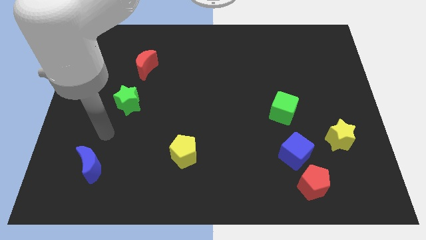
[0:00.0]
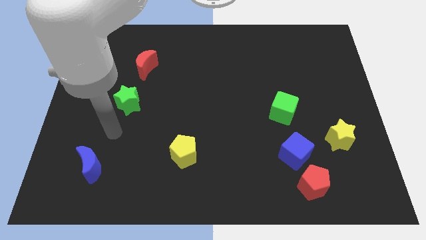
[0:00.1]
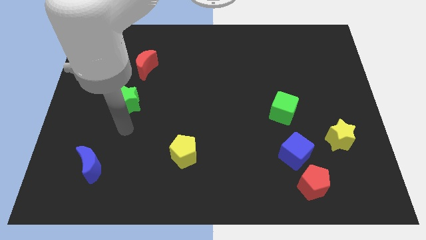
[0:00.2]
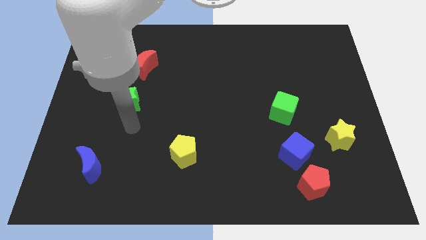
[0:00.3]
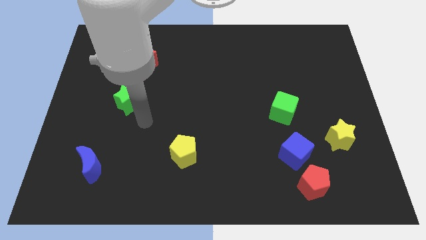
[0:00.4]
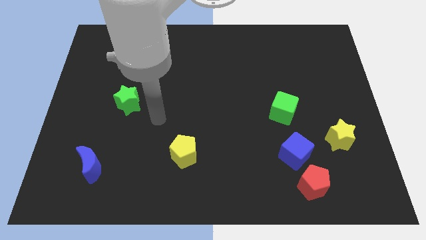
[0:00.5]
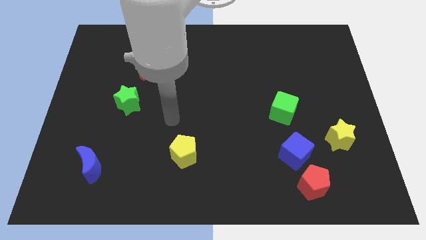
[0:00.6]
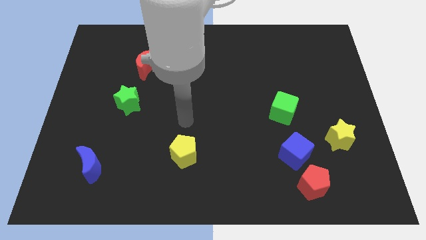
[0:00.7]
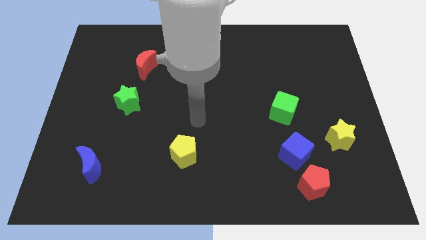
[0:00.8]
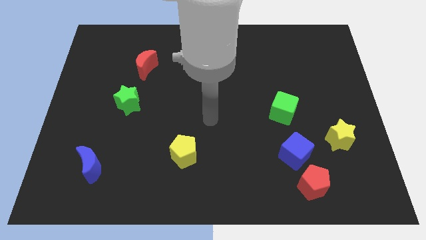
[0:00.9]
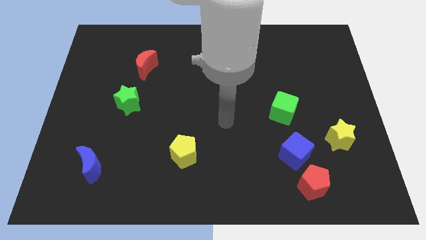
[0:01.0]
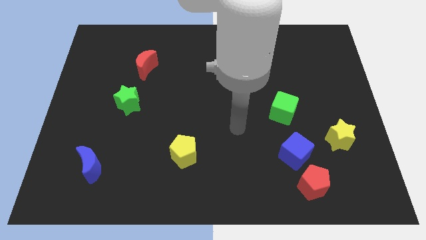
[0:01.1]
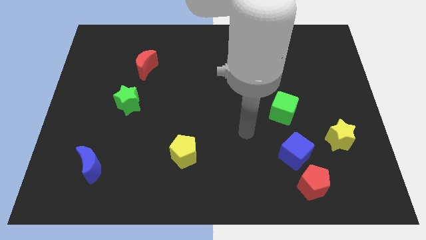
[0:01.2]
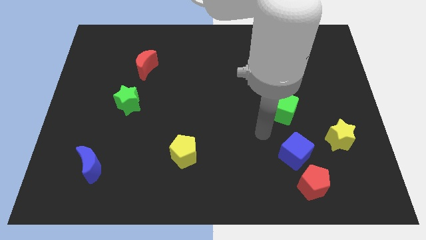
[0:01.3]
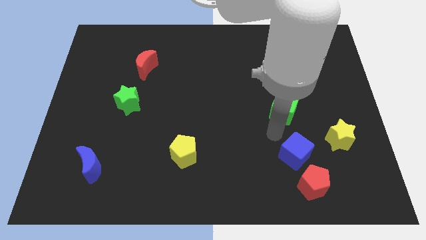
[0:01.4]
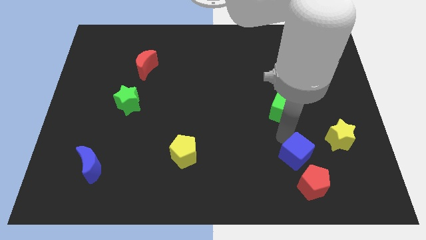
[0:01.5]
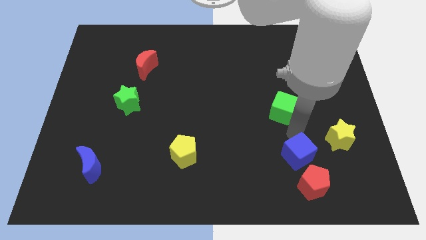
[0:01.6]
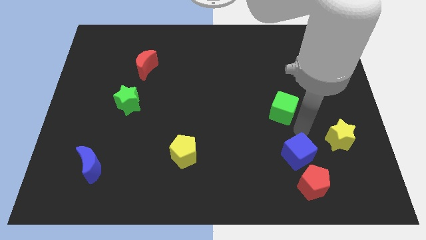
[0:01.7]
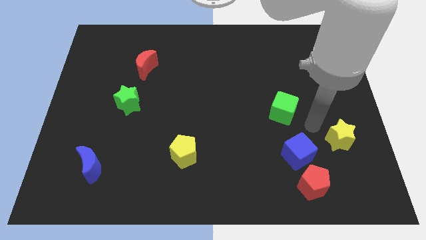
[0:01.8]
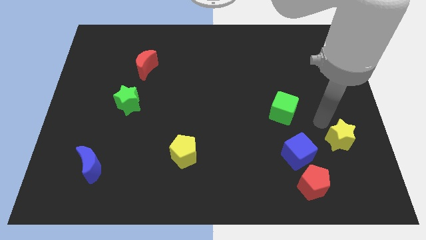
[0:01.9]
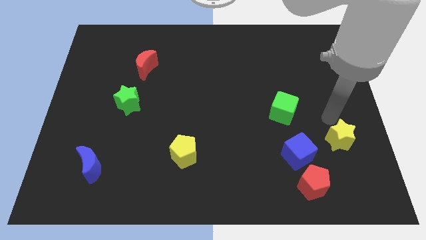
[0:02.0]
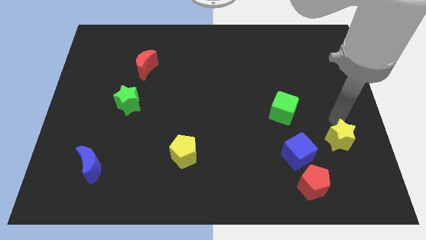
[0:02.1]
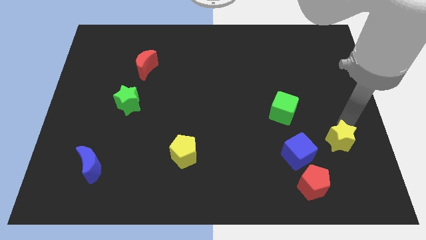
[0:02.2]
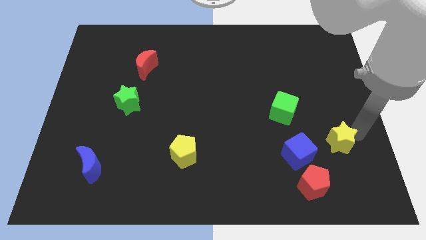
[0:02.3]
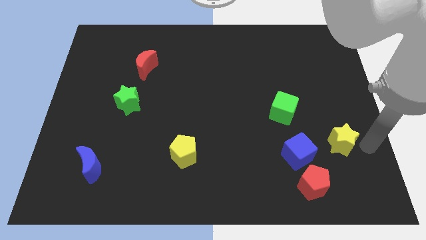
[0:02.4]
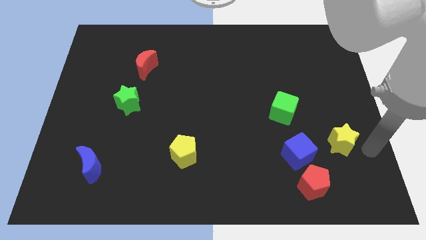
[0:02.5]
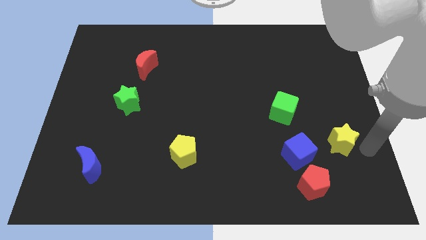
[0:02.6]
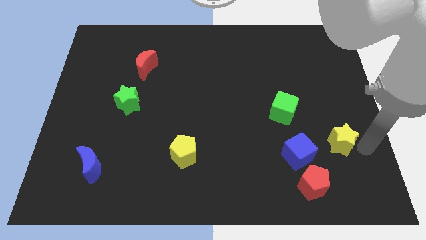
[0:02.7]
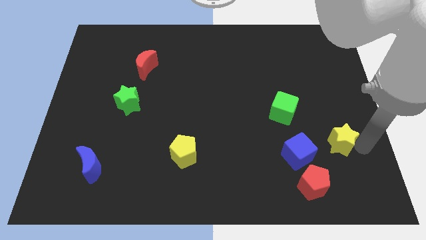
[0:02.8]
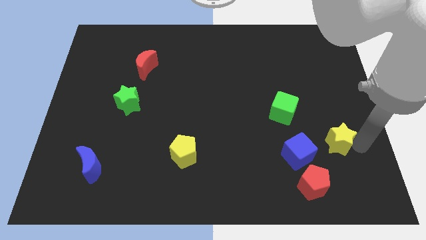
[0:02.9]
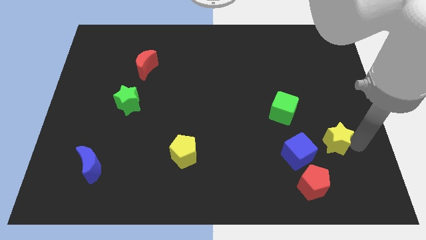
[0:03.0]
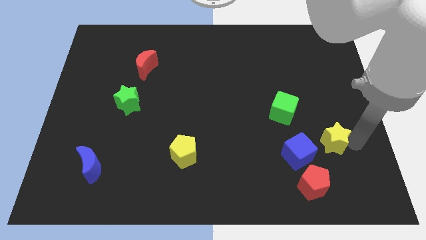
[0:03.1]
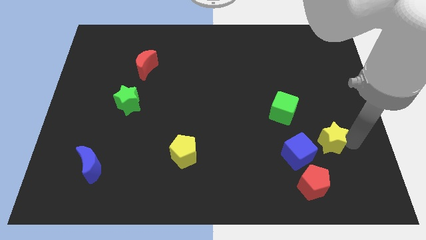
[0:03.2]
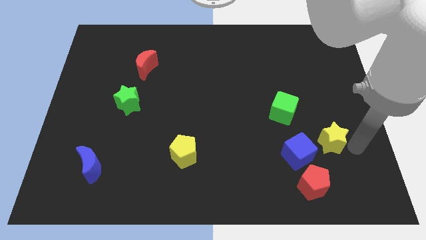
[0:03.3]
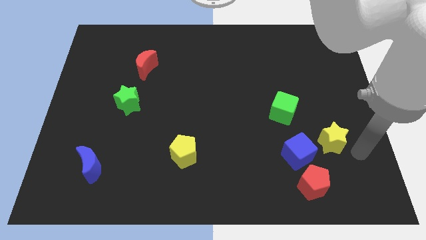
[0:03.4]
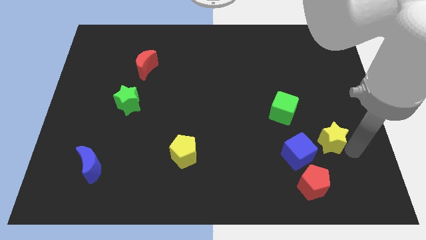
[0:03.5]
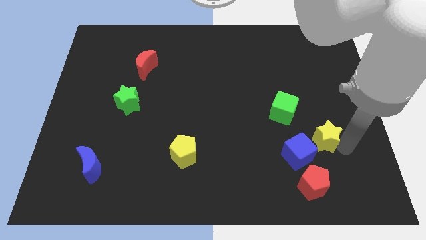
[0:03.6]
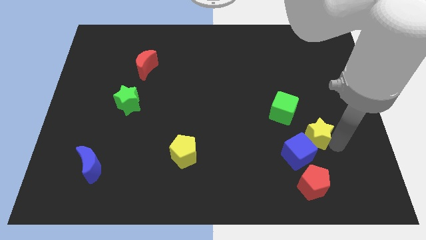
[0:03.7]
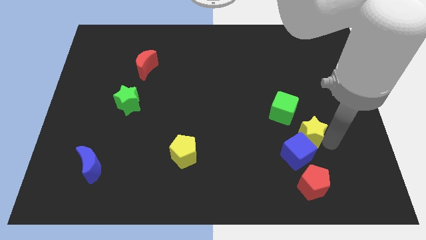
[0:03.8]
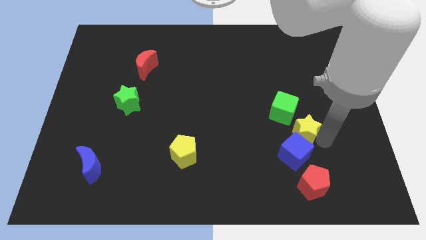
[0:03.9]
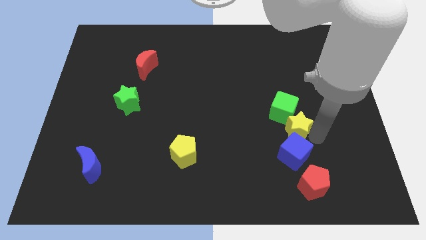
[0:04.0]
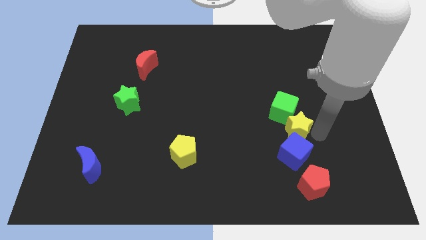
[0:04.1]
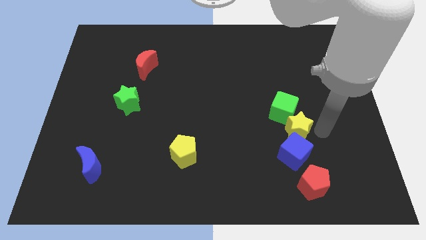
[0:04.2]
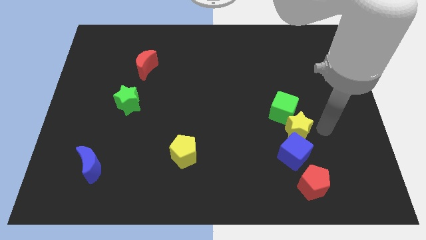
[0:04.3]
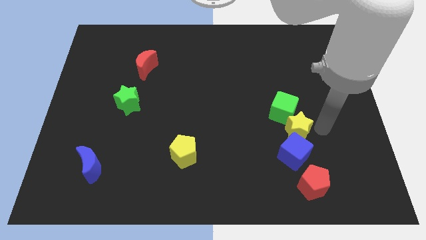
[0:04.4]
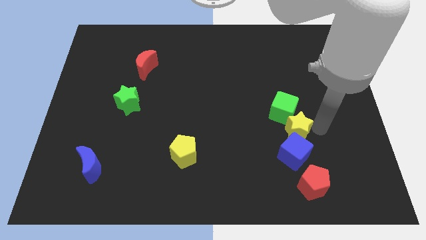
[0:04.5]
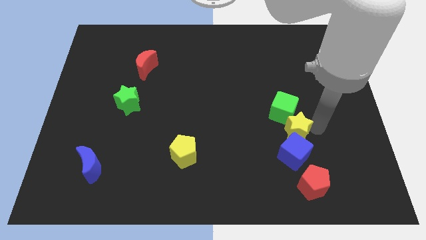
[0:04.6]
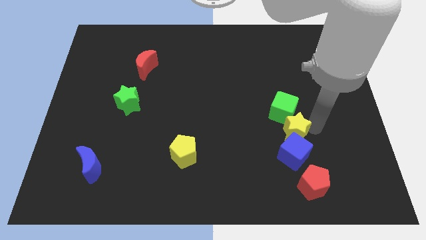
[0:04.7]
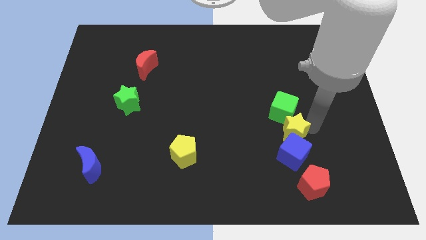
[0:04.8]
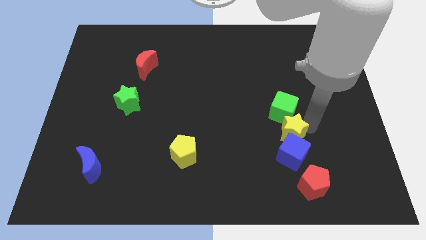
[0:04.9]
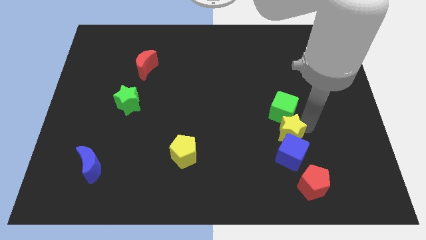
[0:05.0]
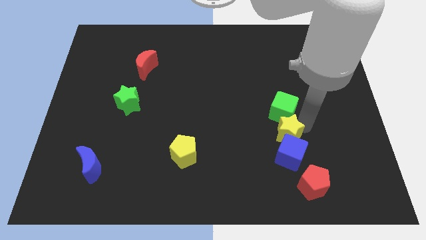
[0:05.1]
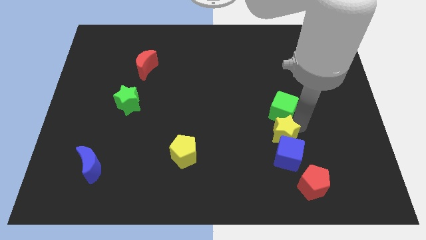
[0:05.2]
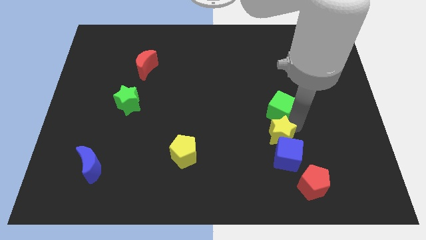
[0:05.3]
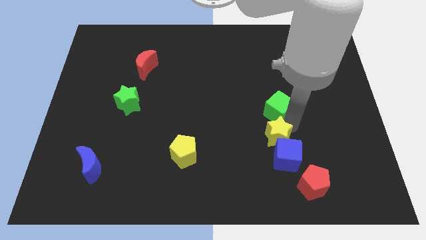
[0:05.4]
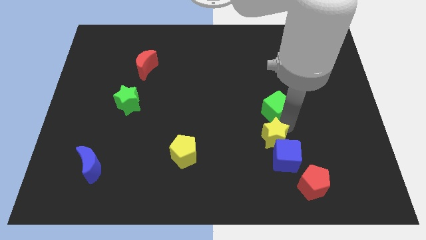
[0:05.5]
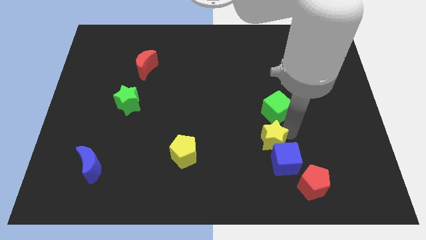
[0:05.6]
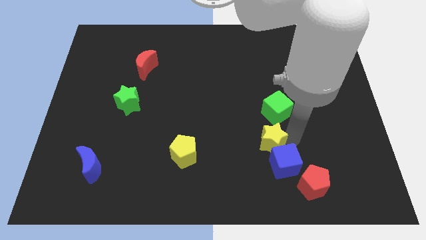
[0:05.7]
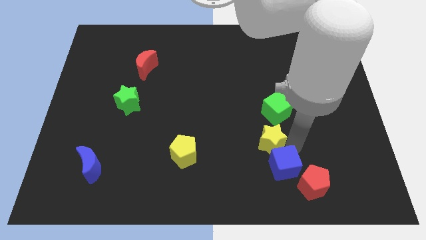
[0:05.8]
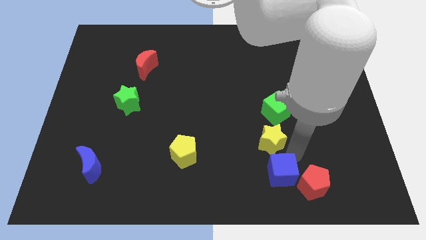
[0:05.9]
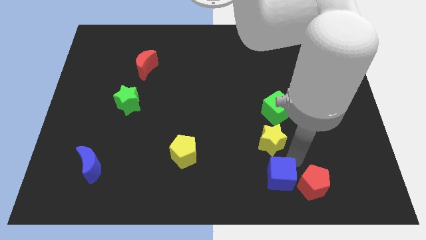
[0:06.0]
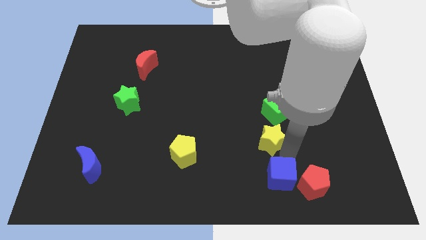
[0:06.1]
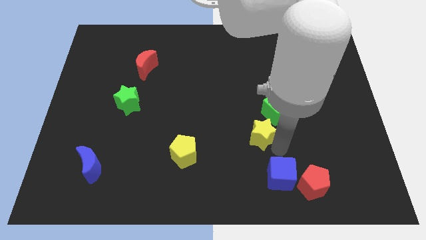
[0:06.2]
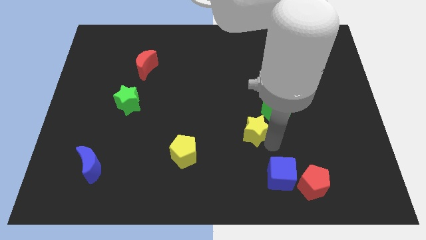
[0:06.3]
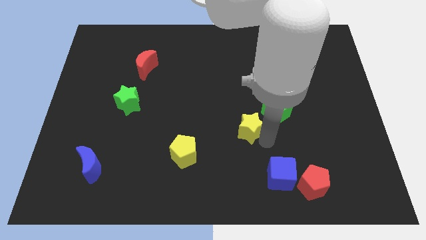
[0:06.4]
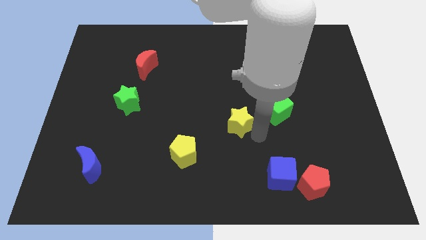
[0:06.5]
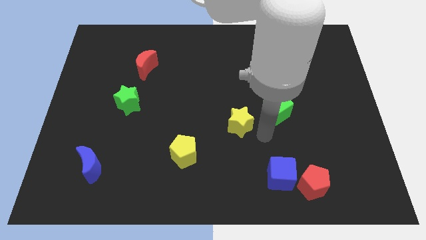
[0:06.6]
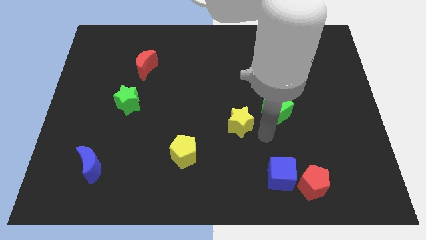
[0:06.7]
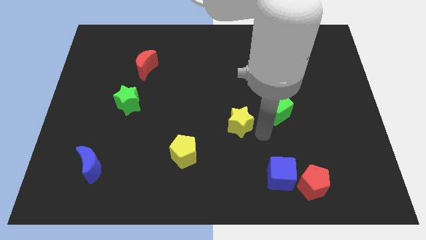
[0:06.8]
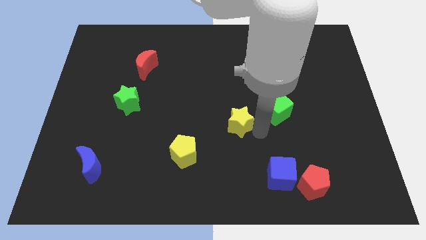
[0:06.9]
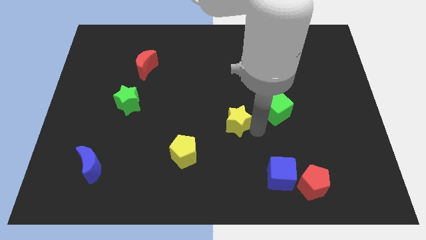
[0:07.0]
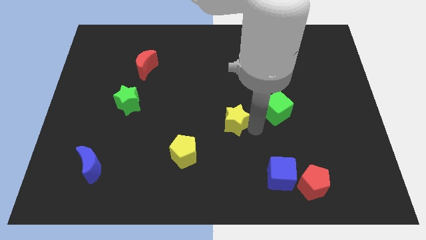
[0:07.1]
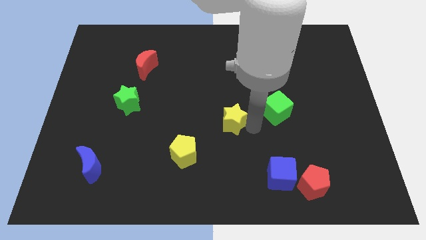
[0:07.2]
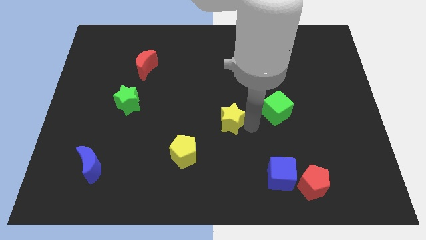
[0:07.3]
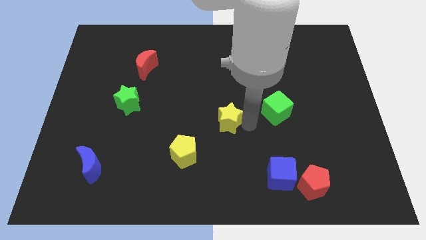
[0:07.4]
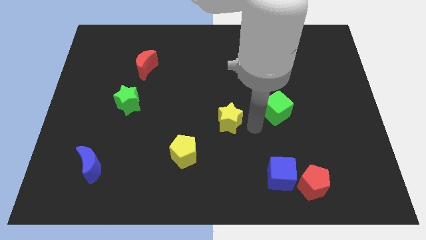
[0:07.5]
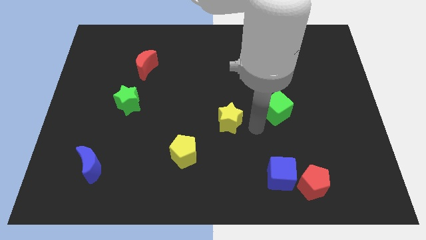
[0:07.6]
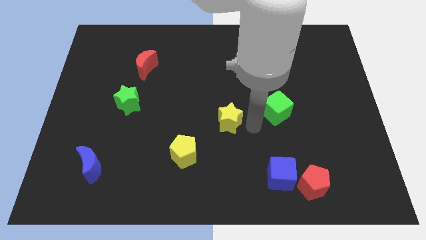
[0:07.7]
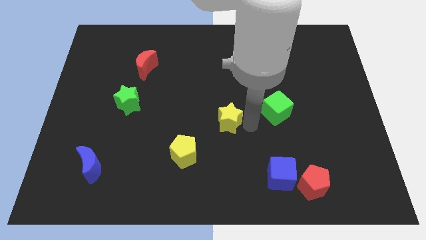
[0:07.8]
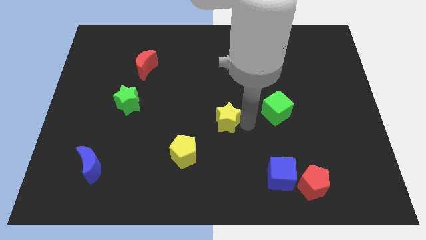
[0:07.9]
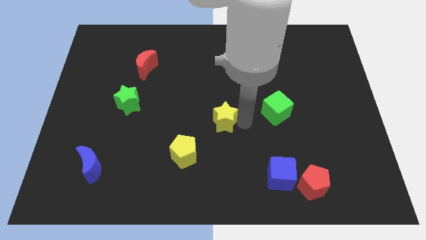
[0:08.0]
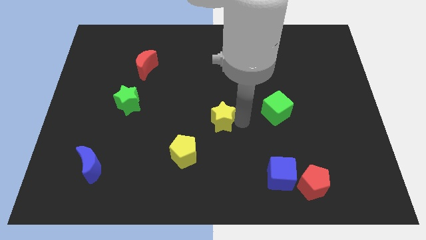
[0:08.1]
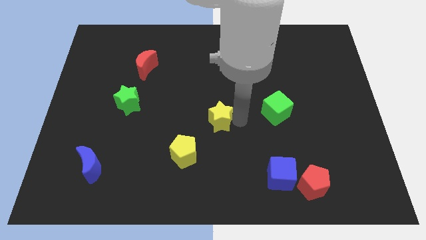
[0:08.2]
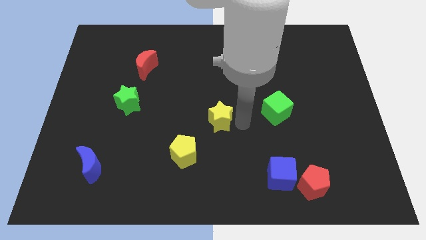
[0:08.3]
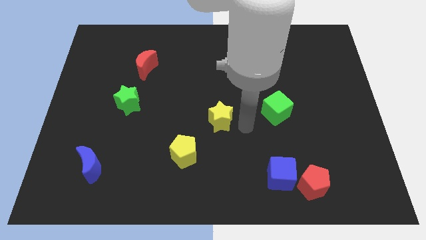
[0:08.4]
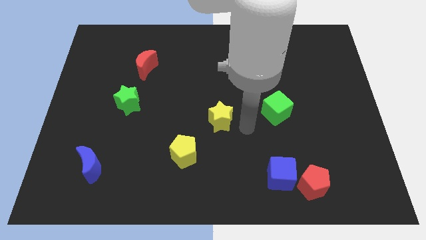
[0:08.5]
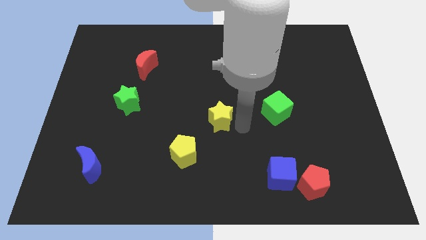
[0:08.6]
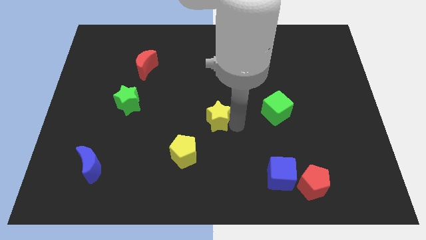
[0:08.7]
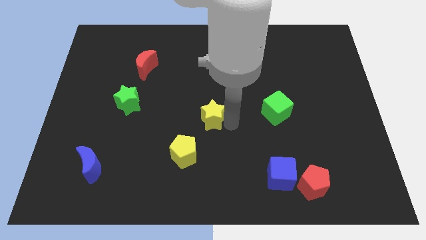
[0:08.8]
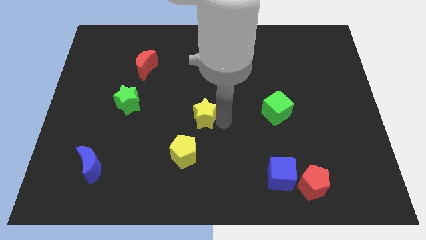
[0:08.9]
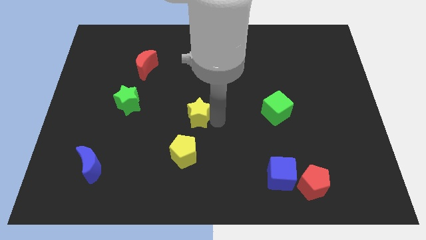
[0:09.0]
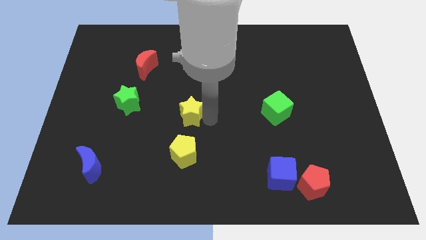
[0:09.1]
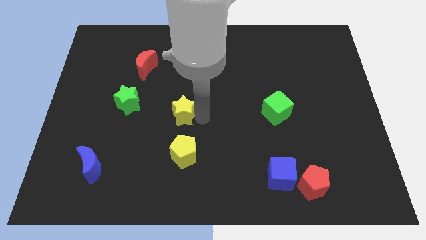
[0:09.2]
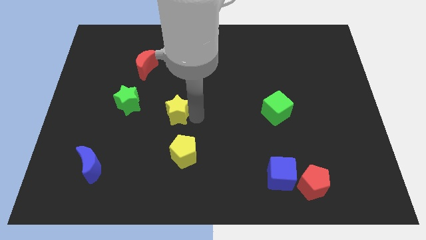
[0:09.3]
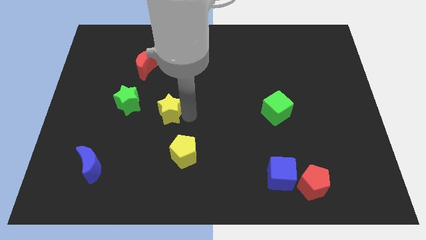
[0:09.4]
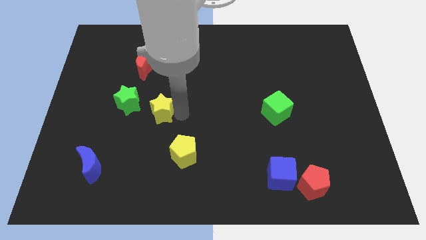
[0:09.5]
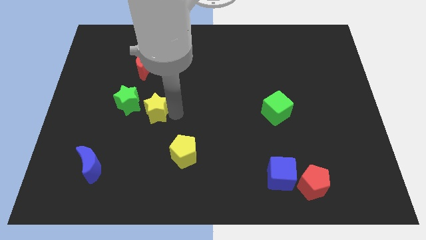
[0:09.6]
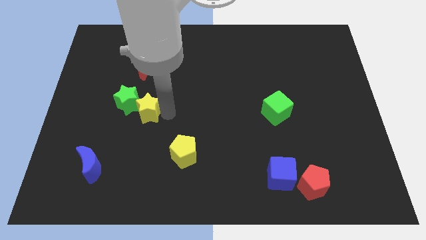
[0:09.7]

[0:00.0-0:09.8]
move the yellow star next to the green star
